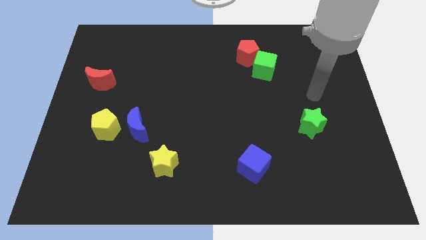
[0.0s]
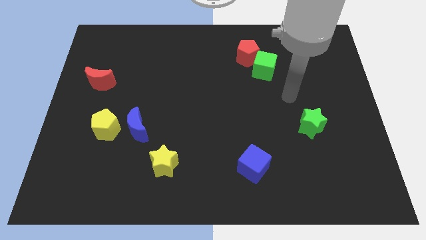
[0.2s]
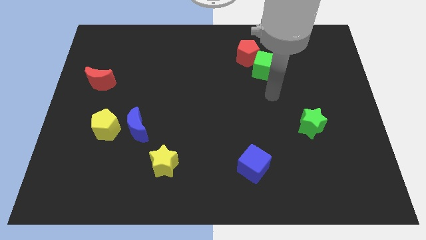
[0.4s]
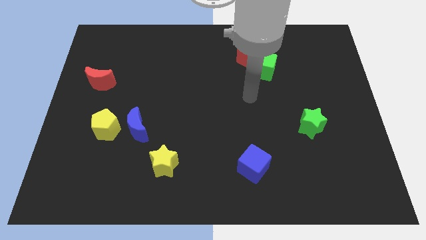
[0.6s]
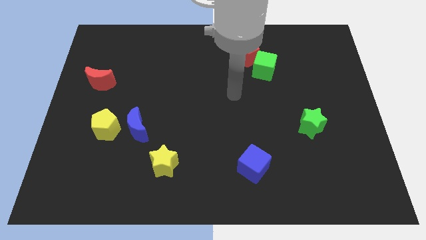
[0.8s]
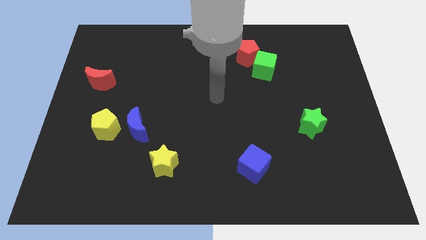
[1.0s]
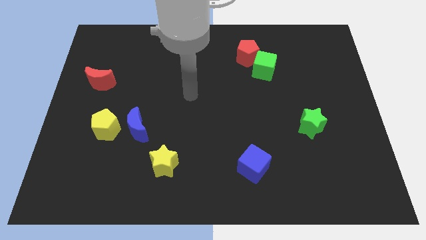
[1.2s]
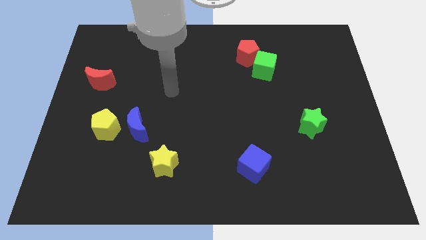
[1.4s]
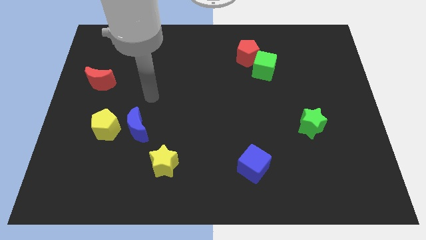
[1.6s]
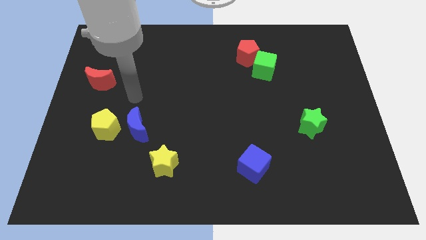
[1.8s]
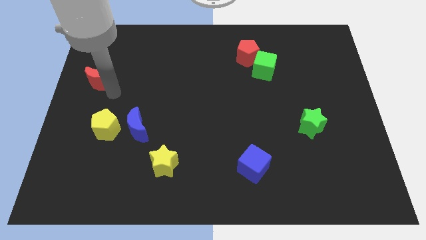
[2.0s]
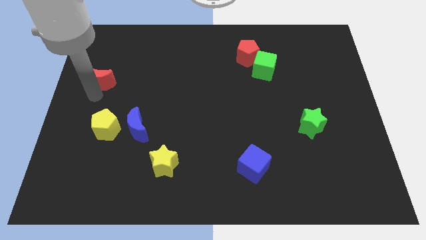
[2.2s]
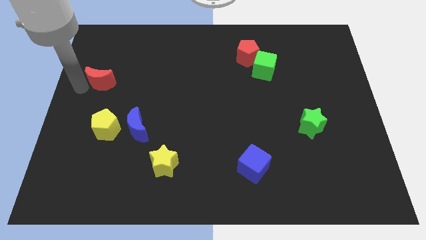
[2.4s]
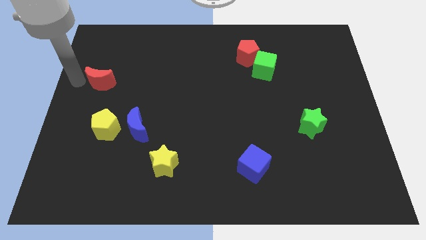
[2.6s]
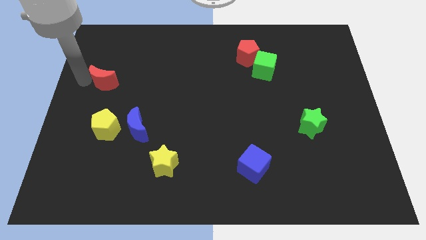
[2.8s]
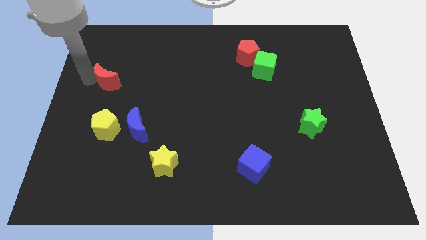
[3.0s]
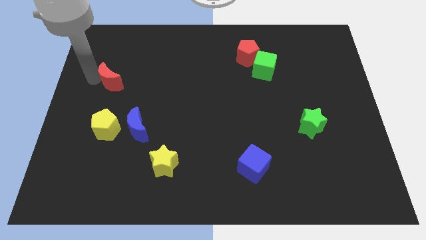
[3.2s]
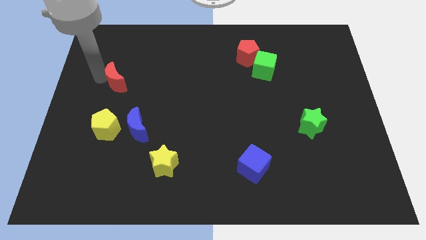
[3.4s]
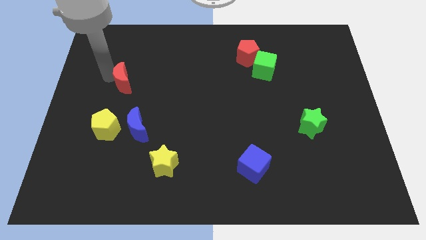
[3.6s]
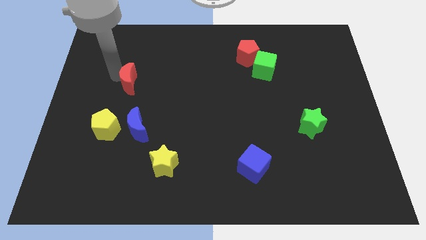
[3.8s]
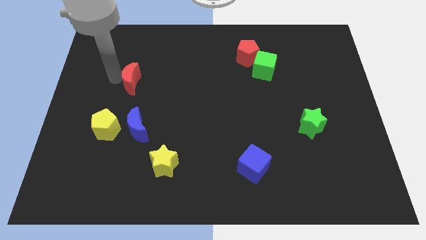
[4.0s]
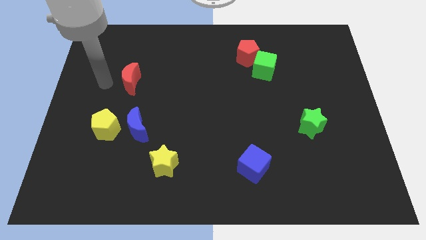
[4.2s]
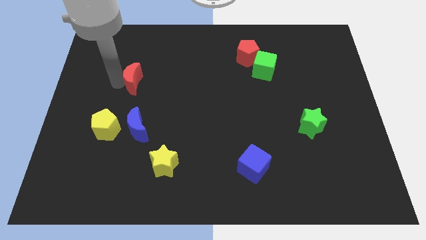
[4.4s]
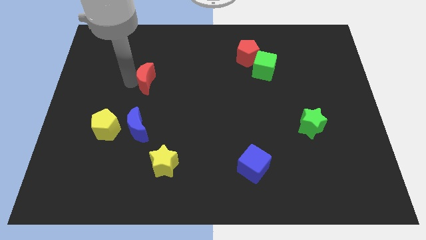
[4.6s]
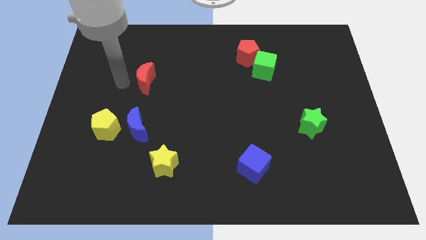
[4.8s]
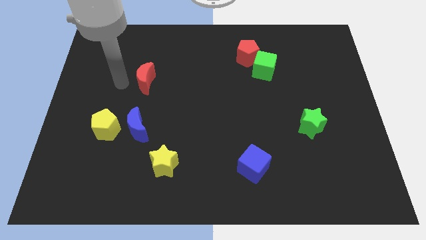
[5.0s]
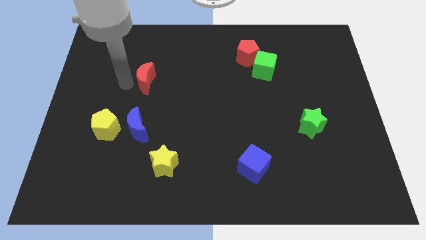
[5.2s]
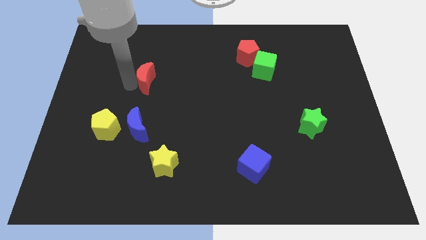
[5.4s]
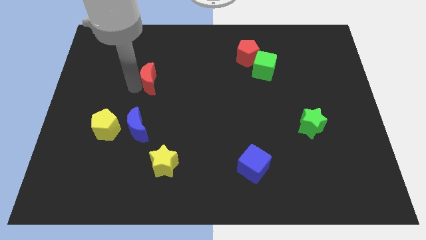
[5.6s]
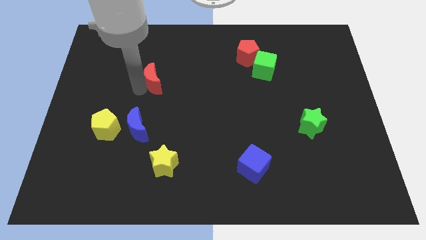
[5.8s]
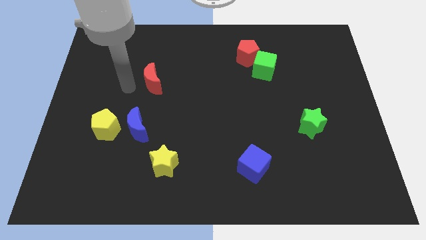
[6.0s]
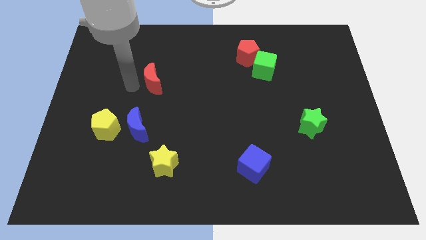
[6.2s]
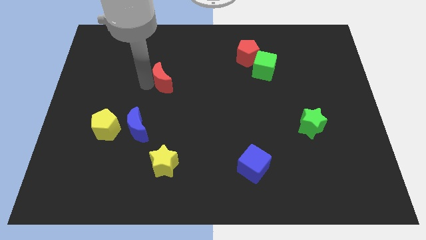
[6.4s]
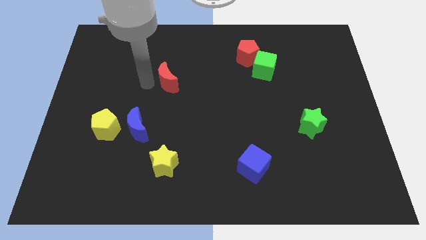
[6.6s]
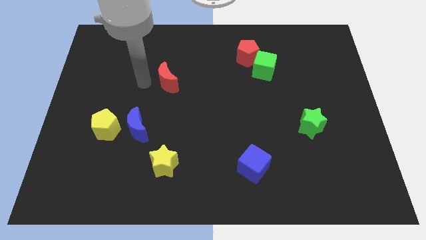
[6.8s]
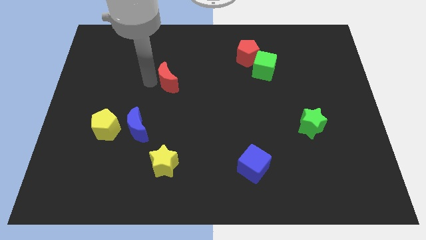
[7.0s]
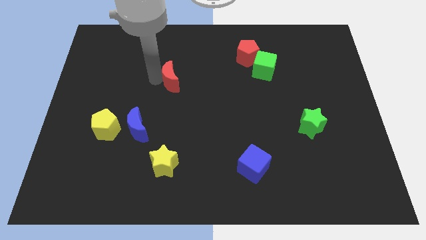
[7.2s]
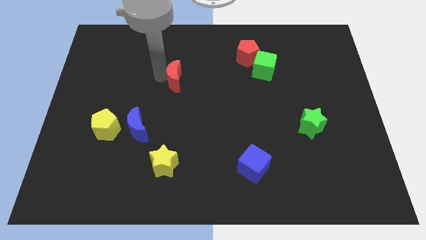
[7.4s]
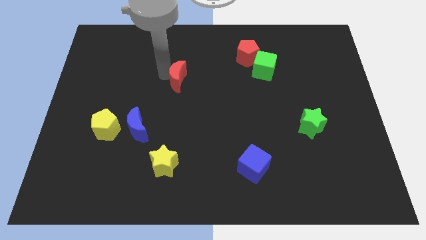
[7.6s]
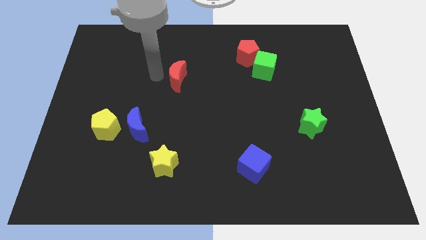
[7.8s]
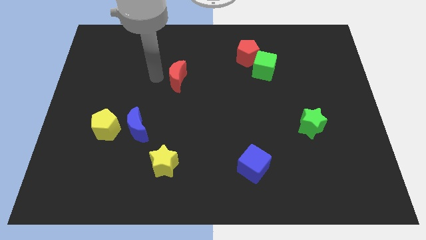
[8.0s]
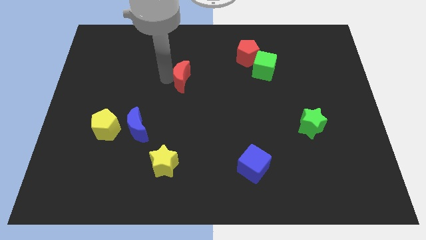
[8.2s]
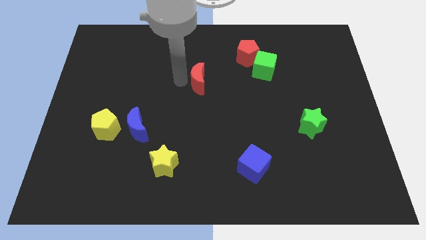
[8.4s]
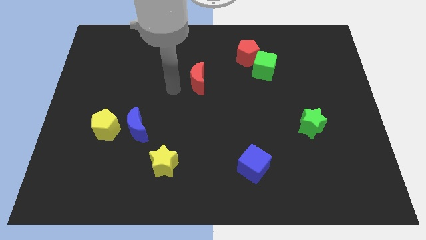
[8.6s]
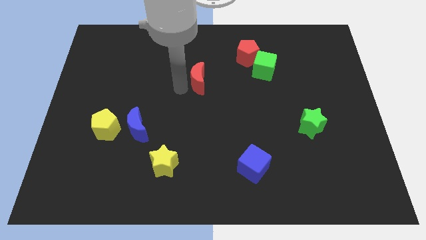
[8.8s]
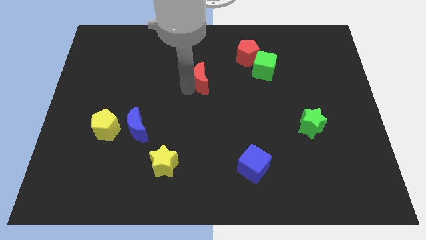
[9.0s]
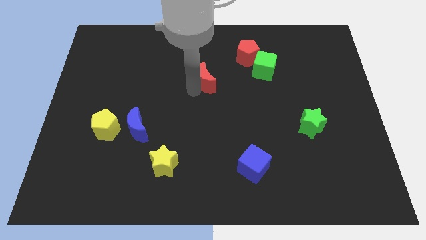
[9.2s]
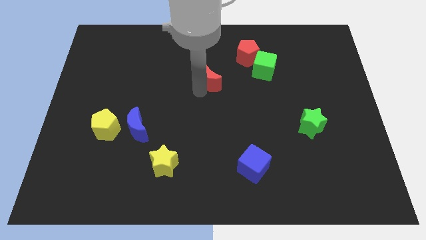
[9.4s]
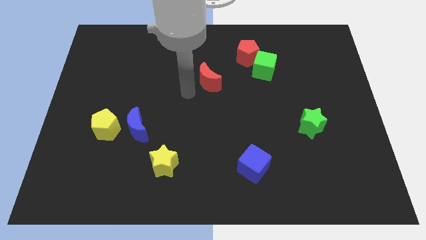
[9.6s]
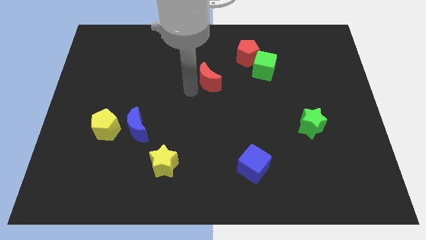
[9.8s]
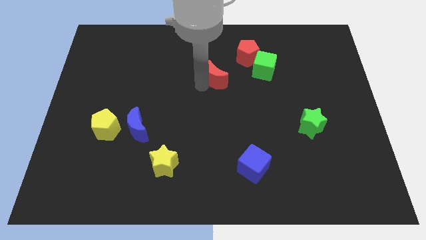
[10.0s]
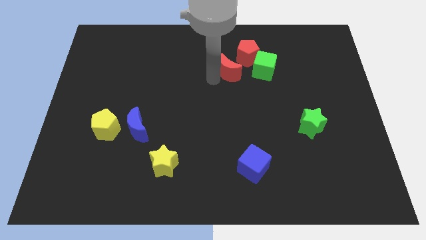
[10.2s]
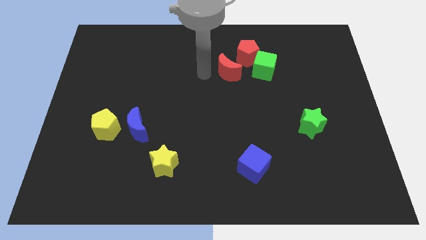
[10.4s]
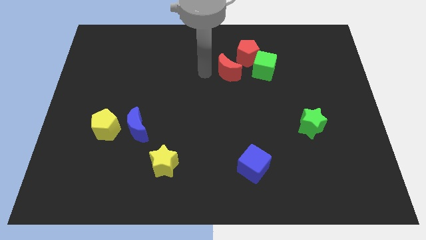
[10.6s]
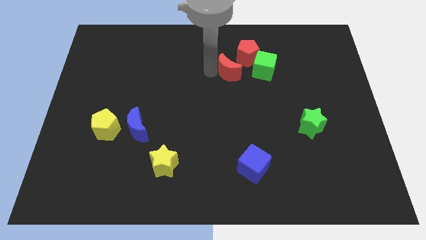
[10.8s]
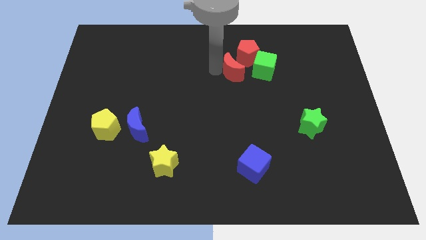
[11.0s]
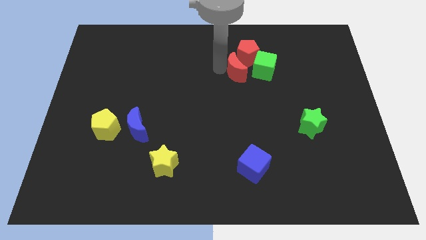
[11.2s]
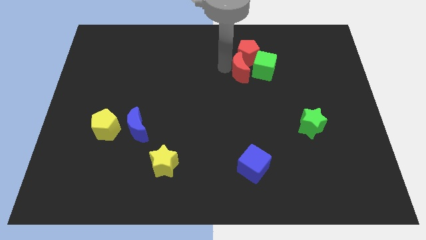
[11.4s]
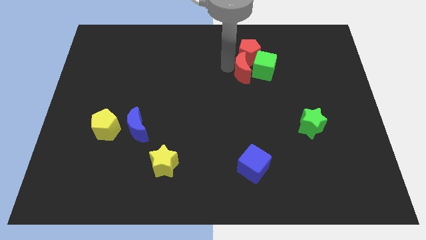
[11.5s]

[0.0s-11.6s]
slide the red moon next to the green cube

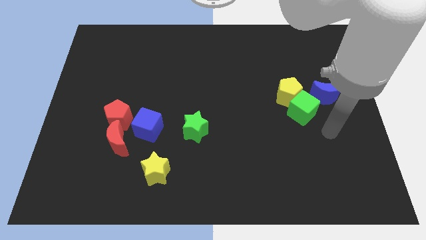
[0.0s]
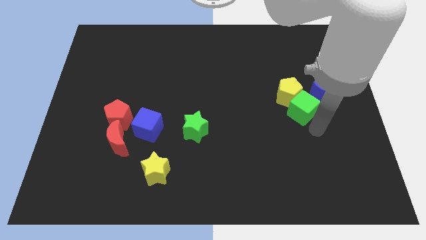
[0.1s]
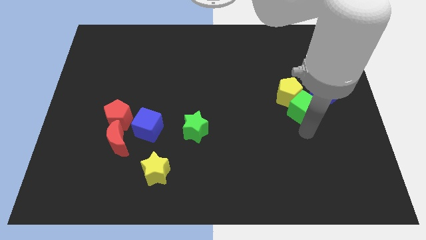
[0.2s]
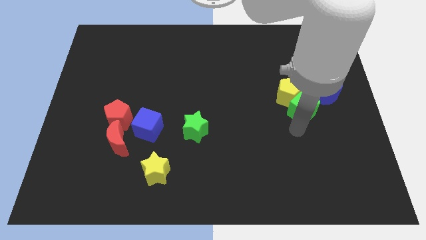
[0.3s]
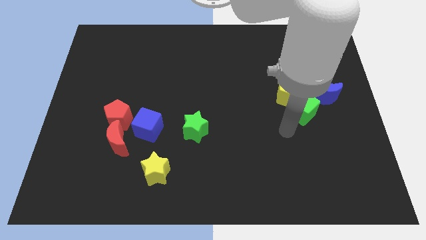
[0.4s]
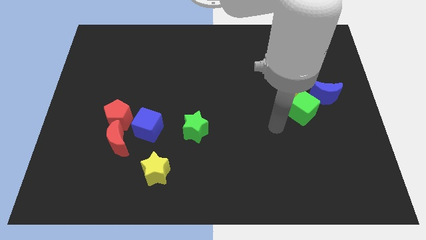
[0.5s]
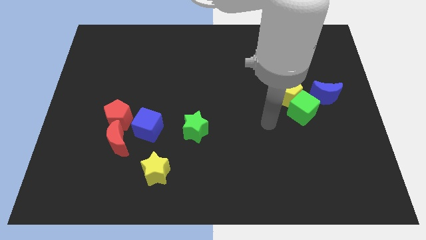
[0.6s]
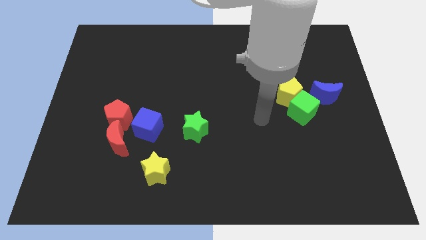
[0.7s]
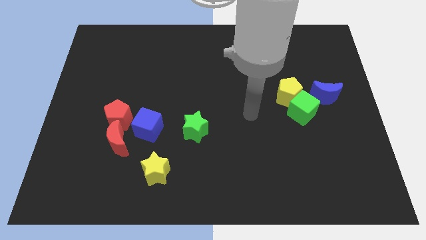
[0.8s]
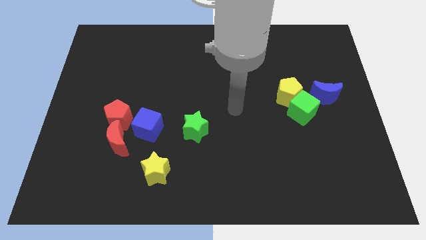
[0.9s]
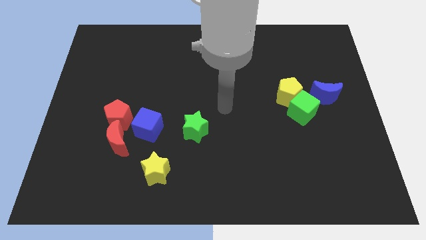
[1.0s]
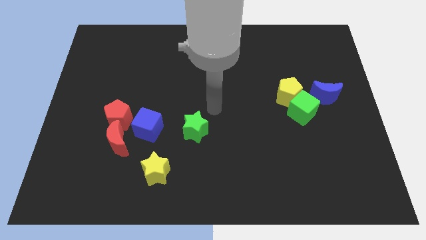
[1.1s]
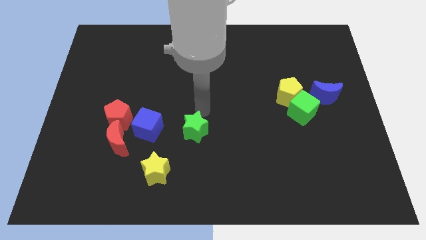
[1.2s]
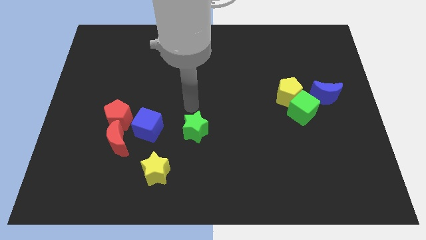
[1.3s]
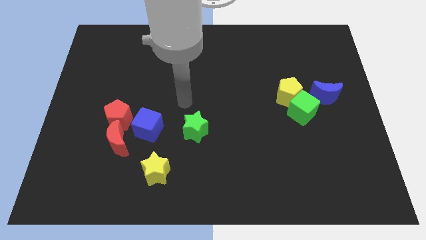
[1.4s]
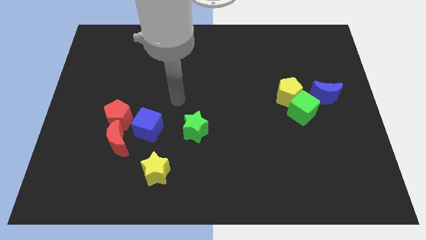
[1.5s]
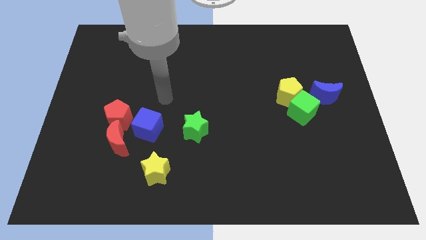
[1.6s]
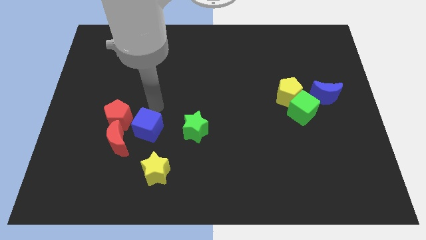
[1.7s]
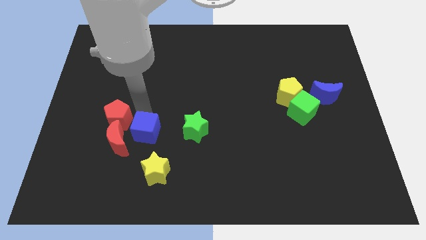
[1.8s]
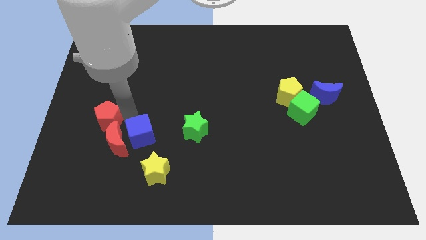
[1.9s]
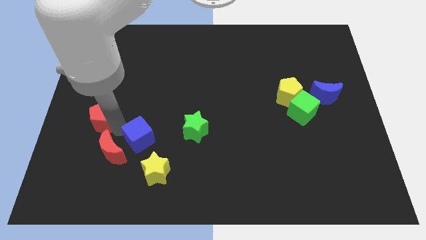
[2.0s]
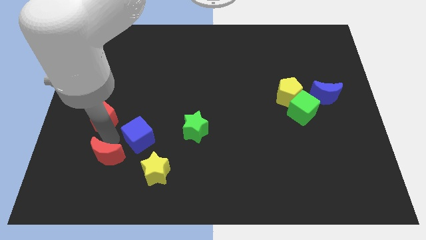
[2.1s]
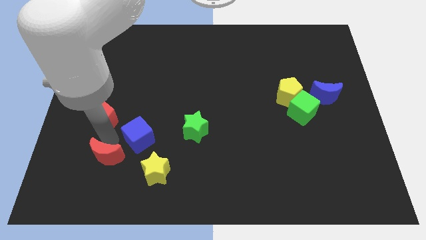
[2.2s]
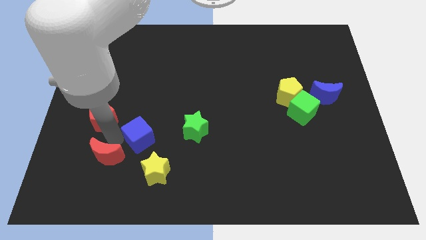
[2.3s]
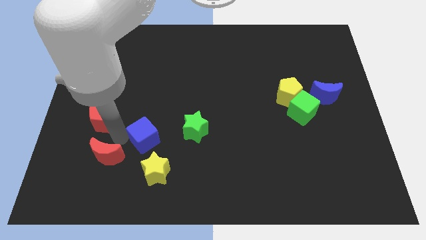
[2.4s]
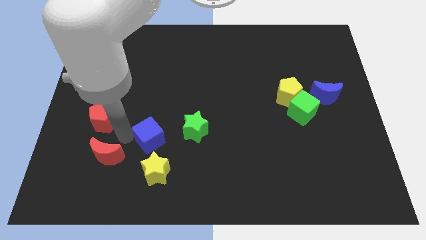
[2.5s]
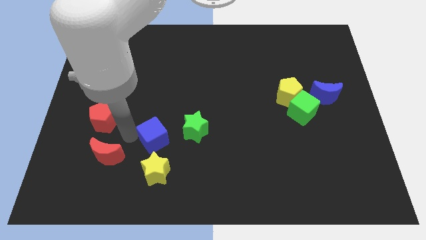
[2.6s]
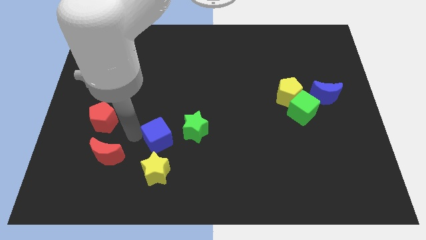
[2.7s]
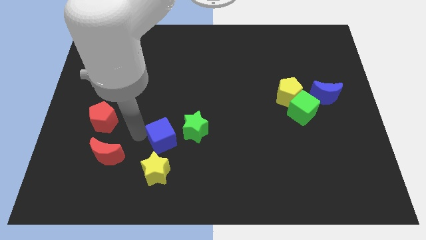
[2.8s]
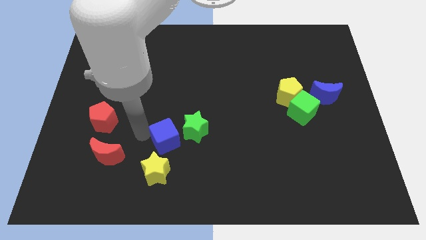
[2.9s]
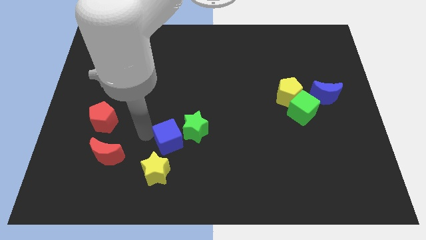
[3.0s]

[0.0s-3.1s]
put the blue cube close to the green star
